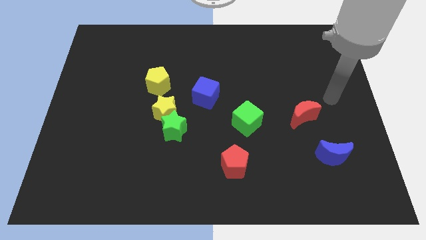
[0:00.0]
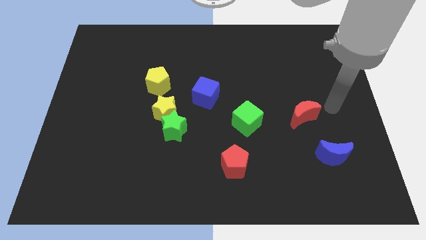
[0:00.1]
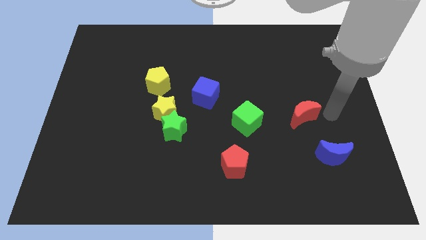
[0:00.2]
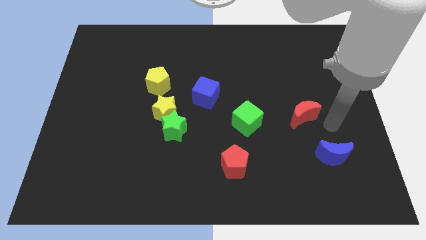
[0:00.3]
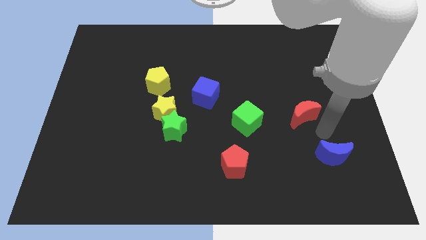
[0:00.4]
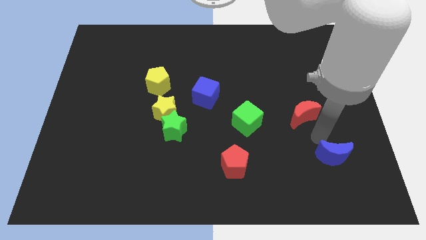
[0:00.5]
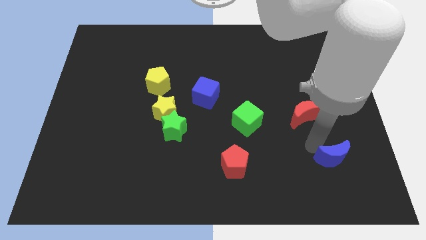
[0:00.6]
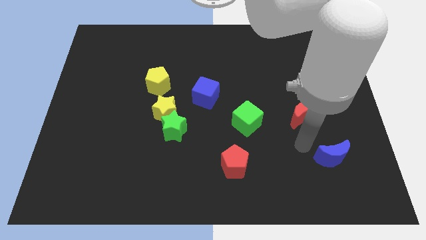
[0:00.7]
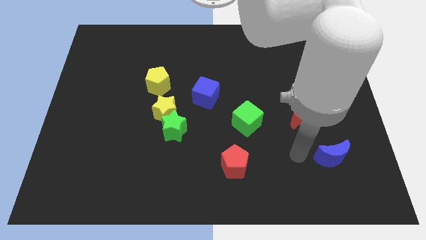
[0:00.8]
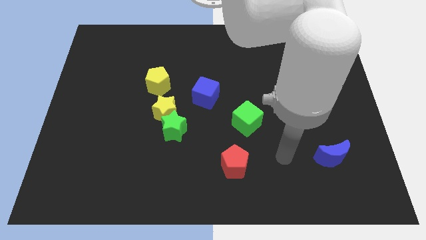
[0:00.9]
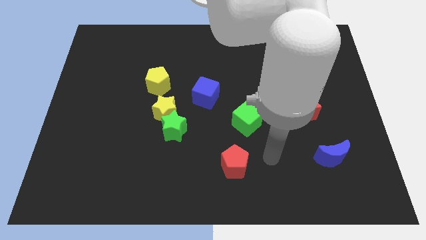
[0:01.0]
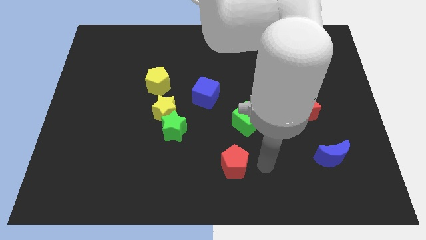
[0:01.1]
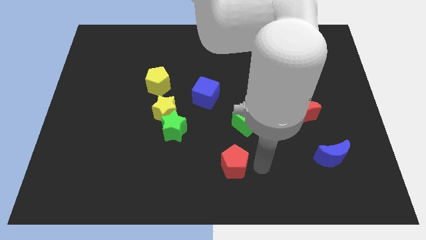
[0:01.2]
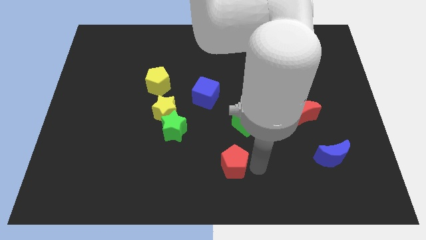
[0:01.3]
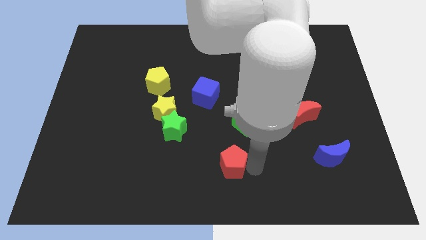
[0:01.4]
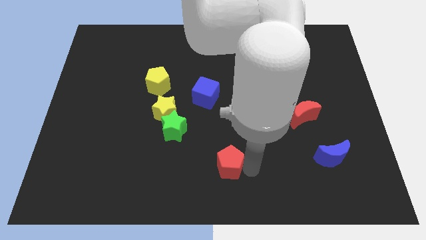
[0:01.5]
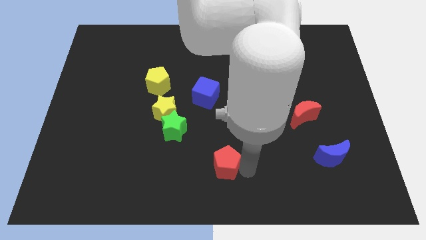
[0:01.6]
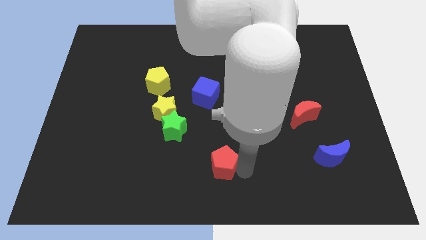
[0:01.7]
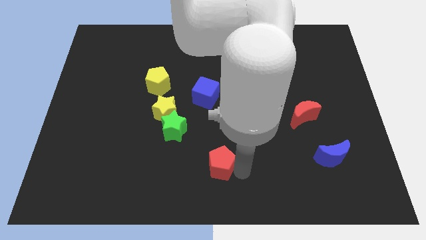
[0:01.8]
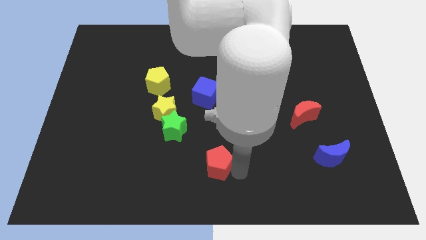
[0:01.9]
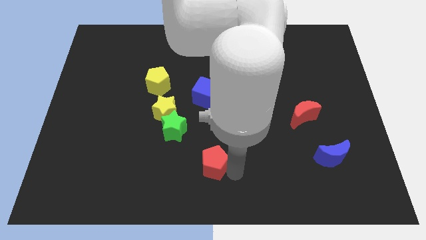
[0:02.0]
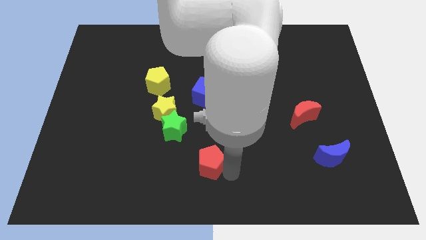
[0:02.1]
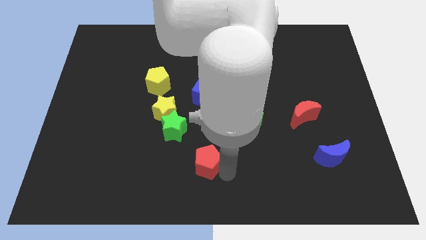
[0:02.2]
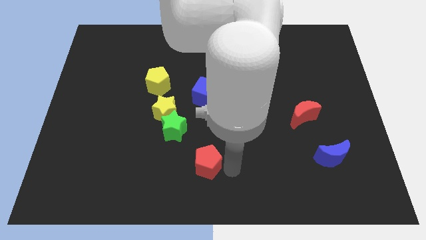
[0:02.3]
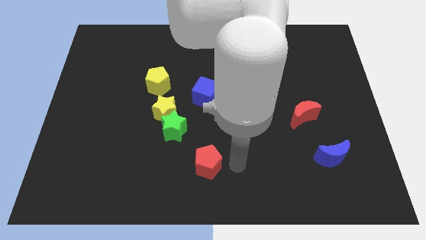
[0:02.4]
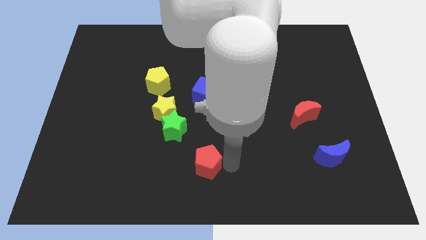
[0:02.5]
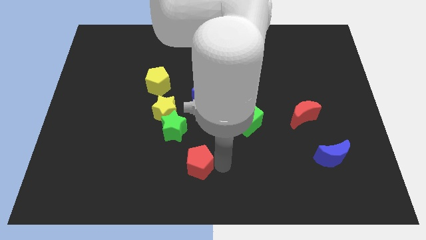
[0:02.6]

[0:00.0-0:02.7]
slightly slide the red pentagon left

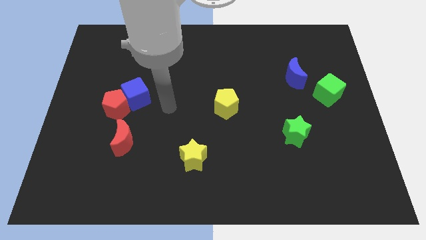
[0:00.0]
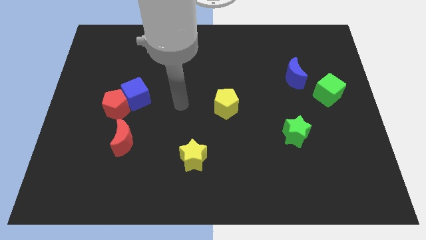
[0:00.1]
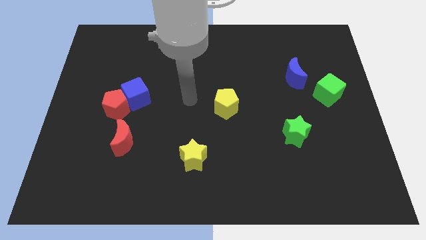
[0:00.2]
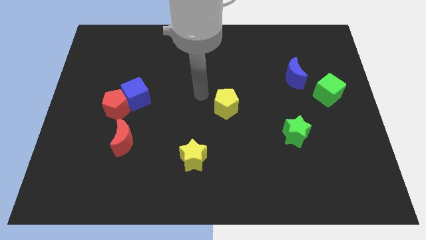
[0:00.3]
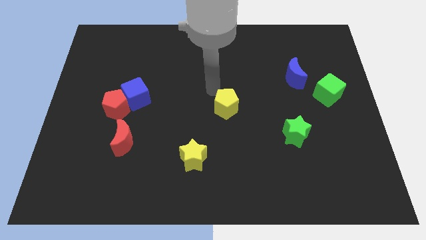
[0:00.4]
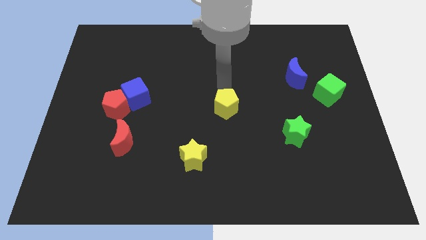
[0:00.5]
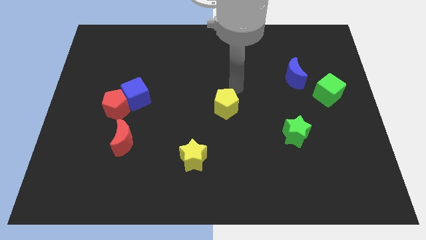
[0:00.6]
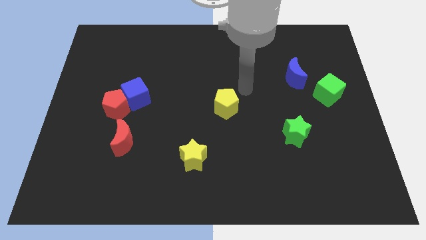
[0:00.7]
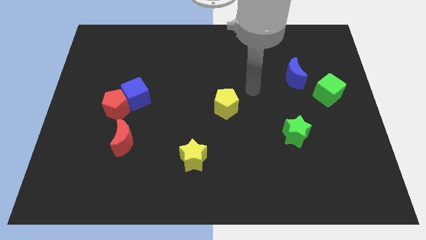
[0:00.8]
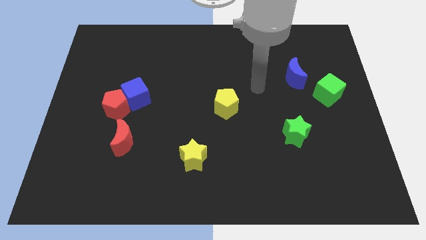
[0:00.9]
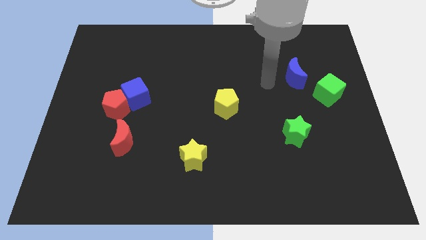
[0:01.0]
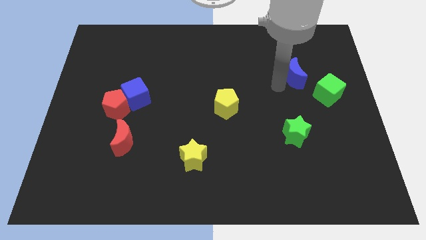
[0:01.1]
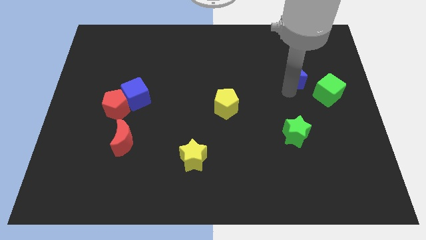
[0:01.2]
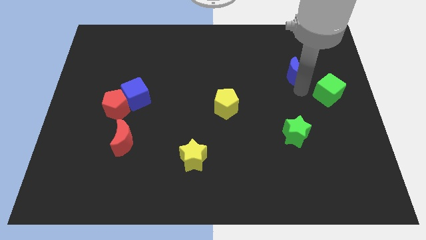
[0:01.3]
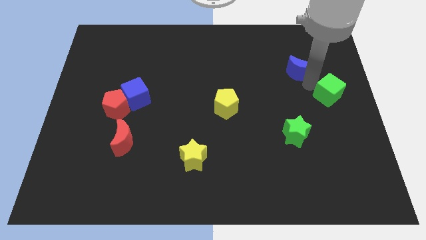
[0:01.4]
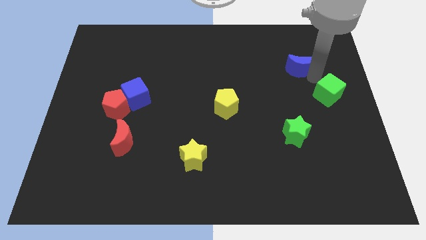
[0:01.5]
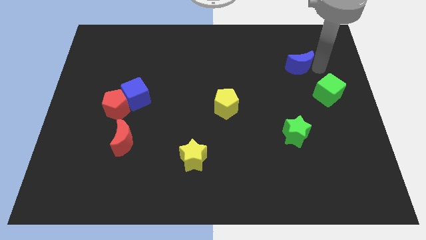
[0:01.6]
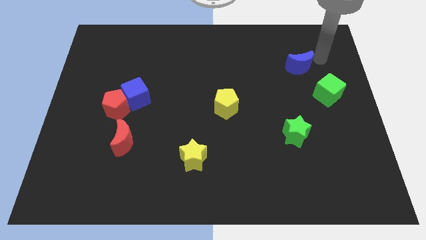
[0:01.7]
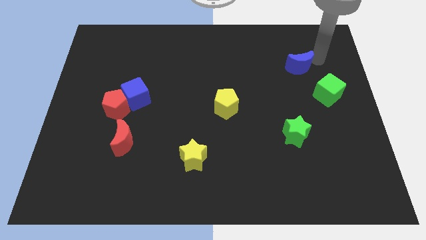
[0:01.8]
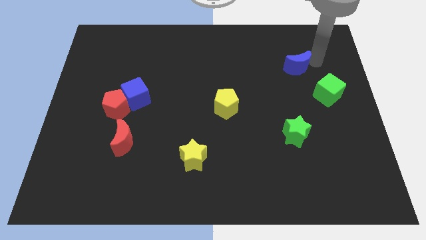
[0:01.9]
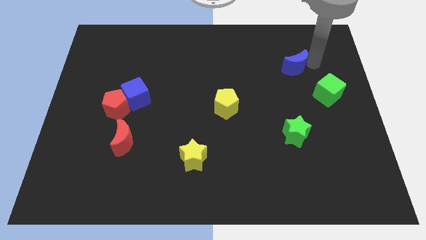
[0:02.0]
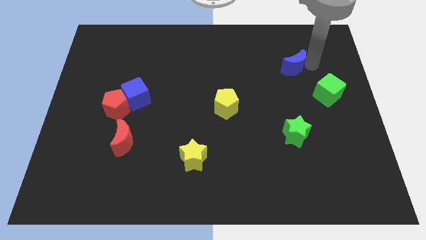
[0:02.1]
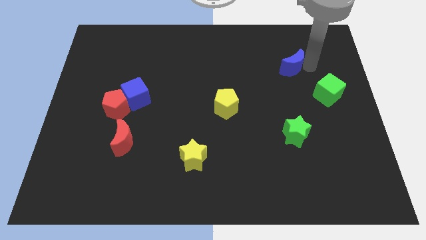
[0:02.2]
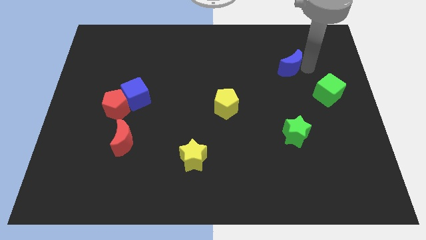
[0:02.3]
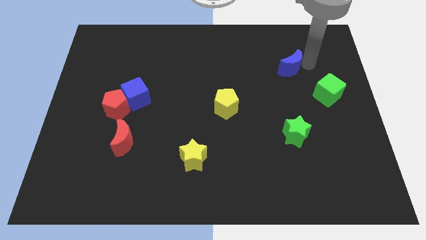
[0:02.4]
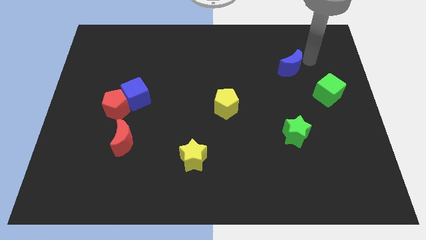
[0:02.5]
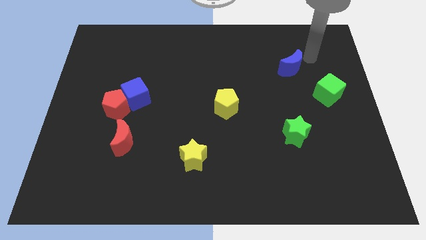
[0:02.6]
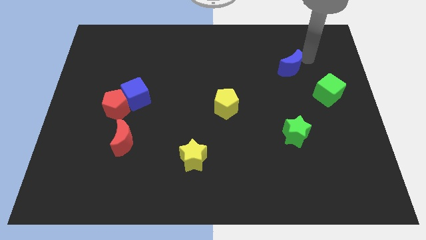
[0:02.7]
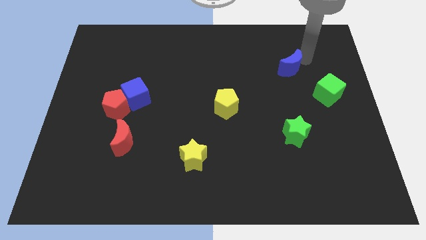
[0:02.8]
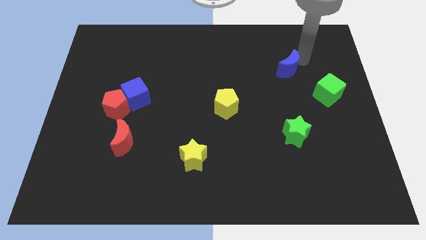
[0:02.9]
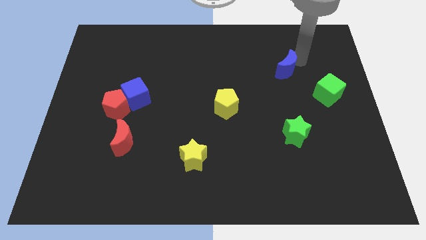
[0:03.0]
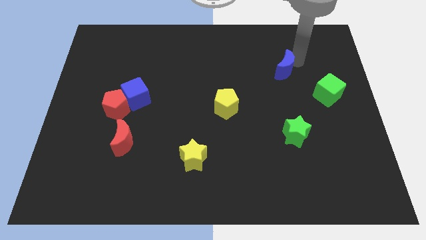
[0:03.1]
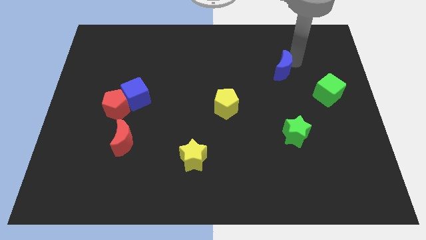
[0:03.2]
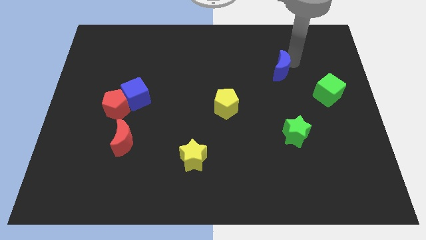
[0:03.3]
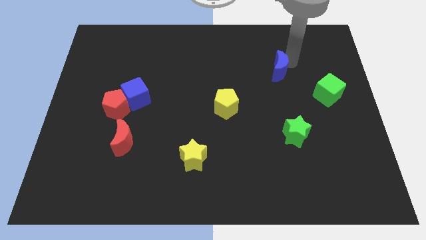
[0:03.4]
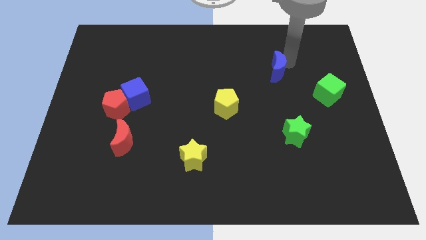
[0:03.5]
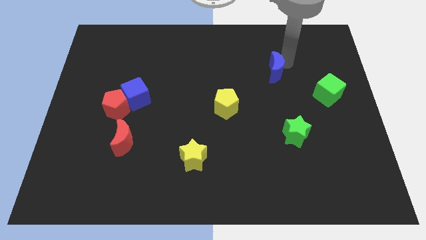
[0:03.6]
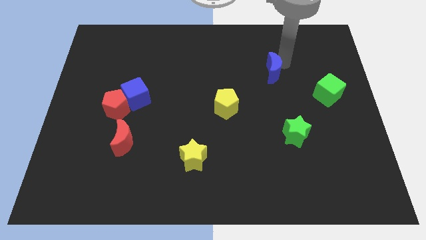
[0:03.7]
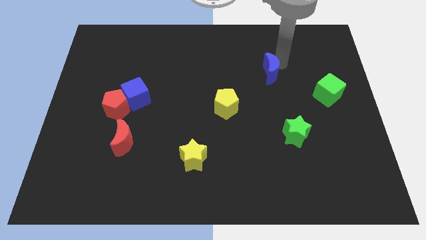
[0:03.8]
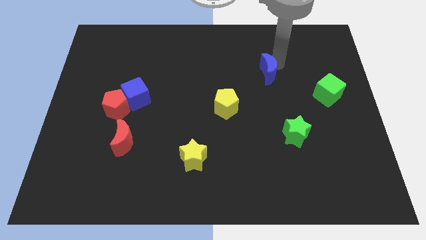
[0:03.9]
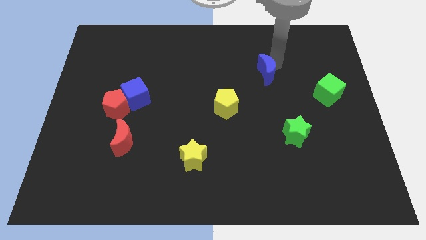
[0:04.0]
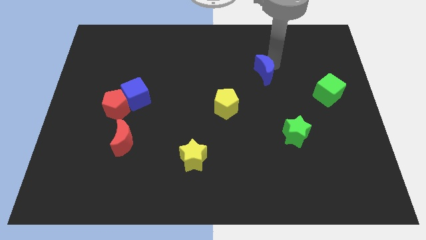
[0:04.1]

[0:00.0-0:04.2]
slide the blue moon a little to the left

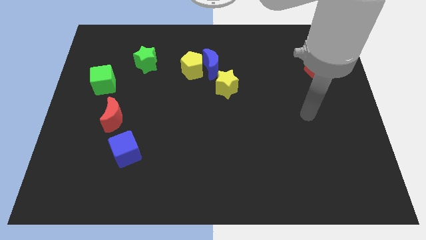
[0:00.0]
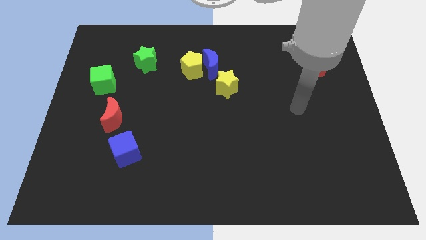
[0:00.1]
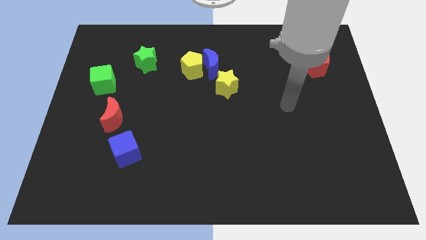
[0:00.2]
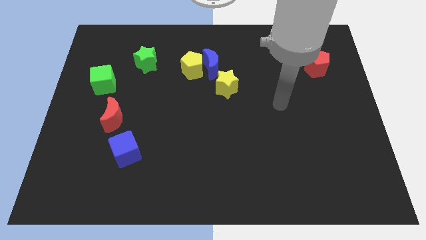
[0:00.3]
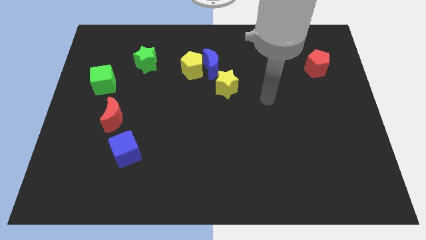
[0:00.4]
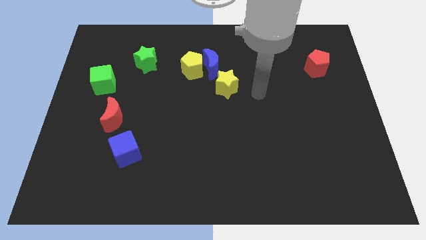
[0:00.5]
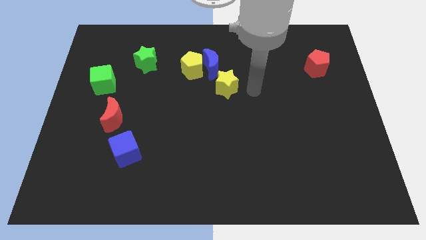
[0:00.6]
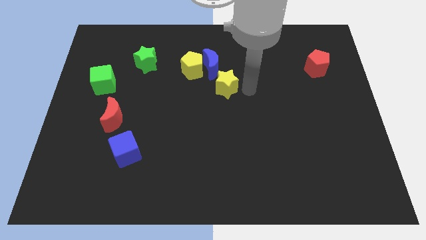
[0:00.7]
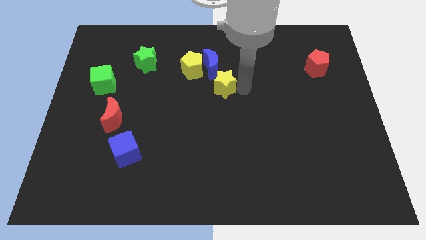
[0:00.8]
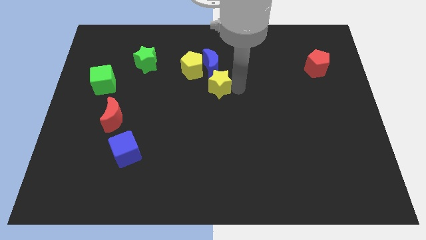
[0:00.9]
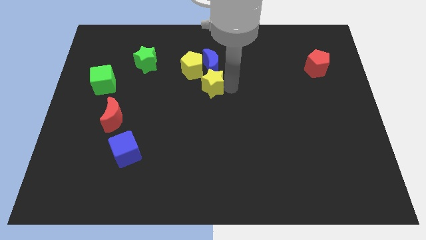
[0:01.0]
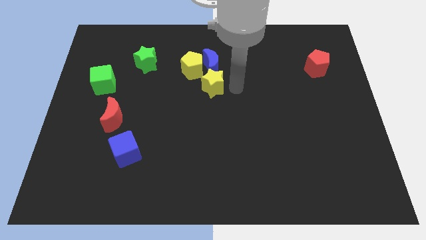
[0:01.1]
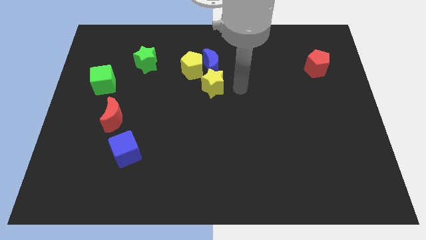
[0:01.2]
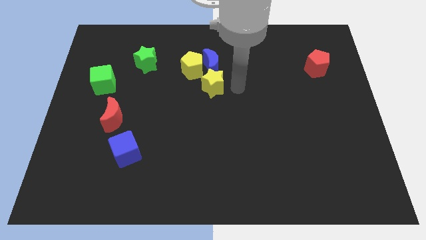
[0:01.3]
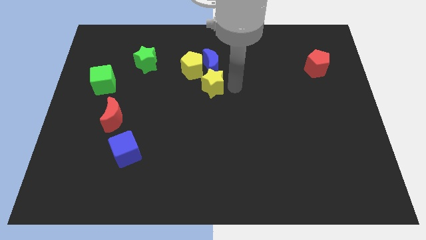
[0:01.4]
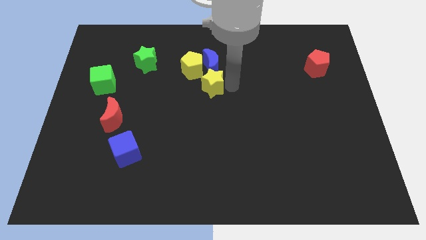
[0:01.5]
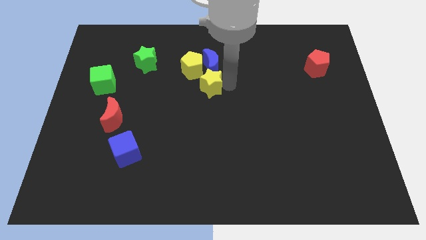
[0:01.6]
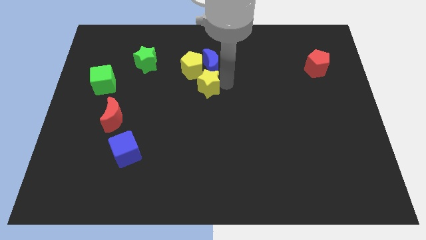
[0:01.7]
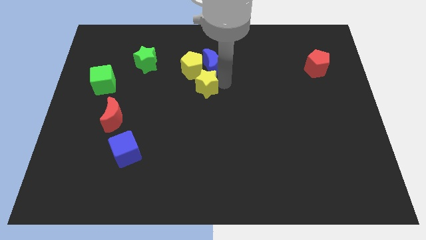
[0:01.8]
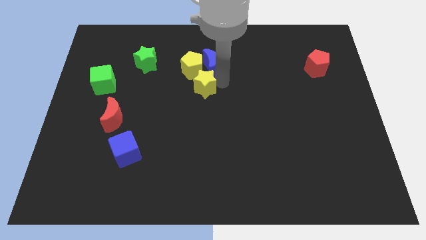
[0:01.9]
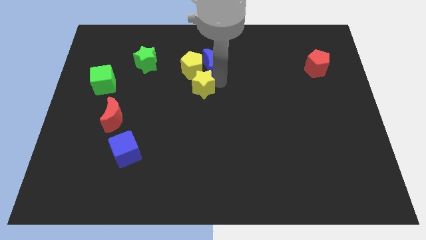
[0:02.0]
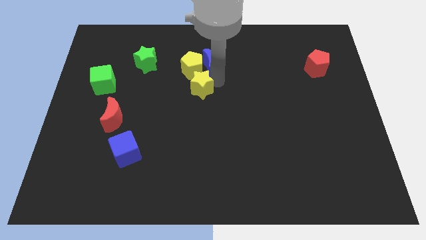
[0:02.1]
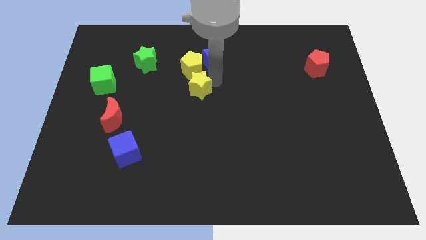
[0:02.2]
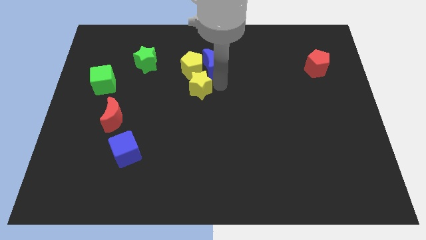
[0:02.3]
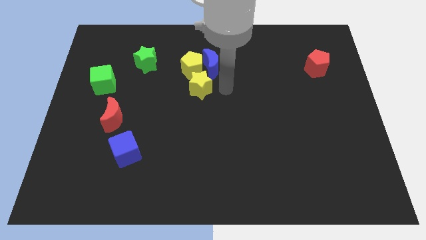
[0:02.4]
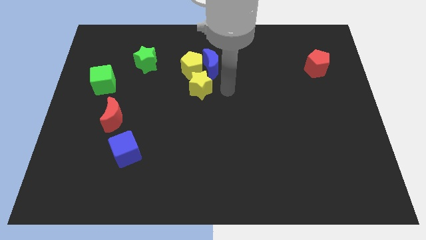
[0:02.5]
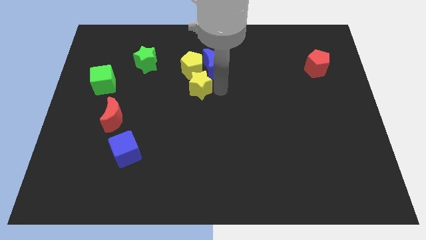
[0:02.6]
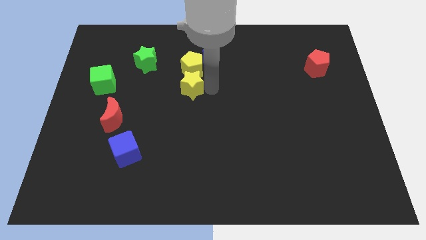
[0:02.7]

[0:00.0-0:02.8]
push the yellow star to the left a bit
